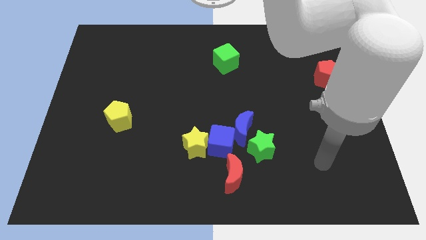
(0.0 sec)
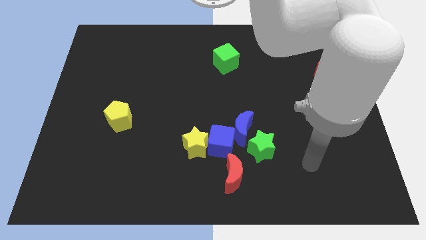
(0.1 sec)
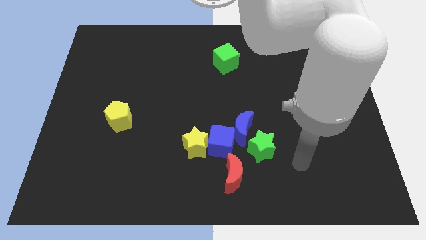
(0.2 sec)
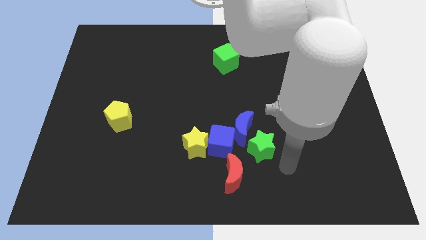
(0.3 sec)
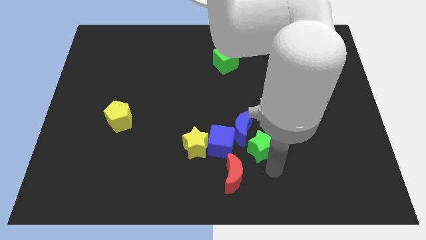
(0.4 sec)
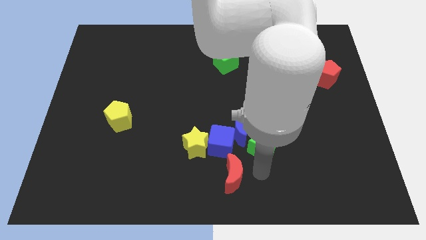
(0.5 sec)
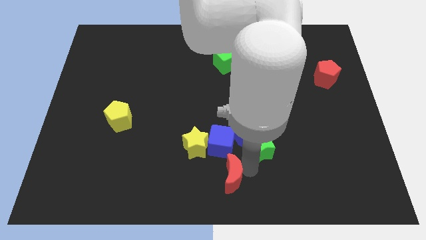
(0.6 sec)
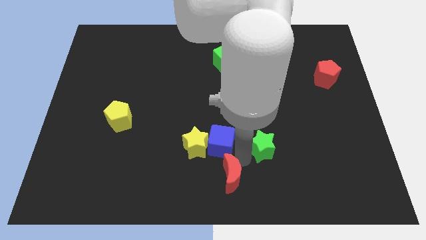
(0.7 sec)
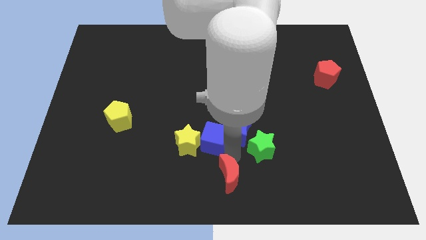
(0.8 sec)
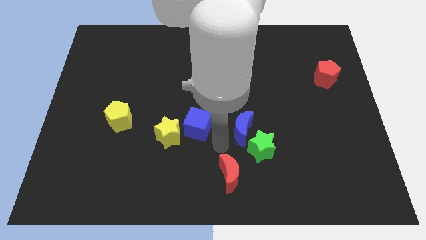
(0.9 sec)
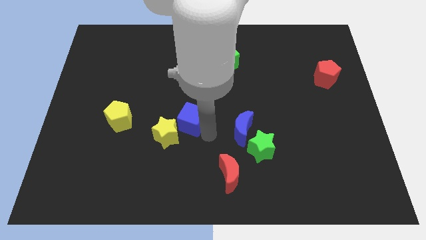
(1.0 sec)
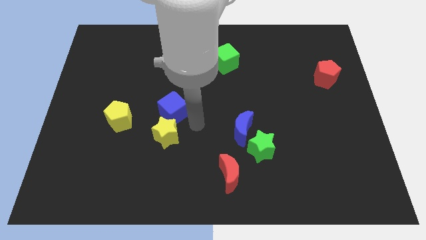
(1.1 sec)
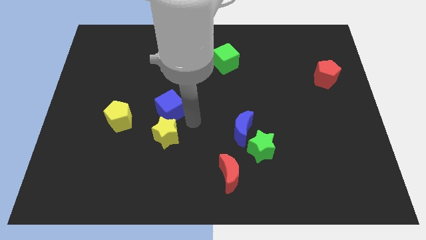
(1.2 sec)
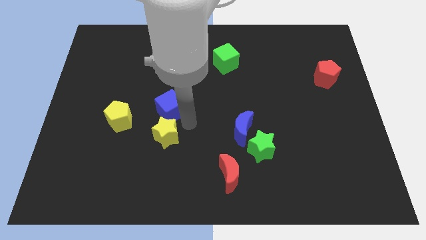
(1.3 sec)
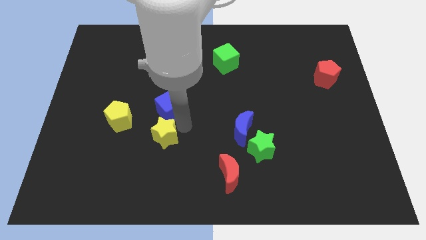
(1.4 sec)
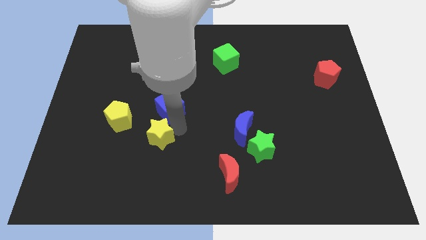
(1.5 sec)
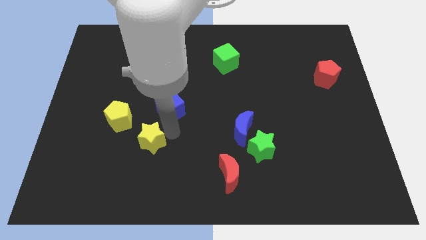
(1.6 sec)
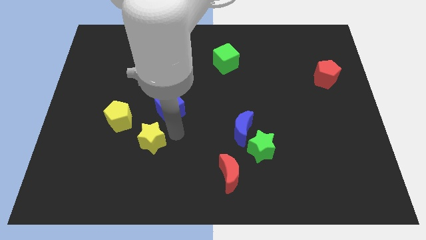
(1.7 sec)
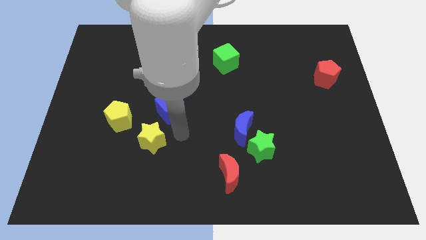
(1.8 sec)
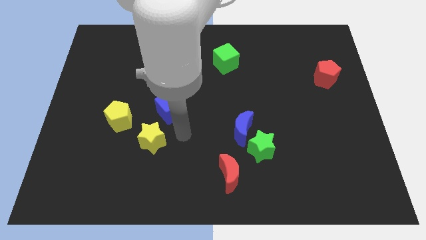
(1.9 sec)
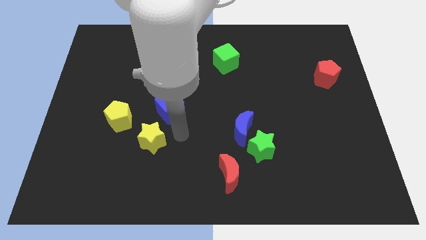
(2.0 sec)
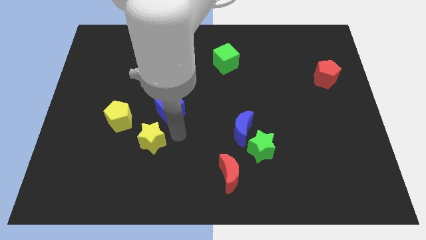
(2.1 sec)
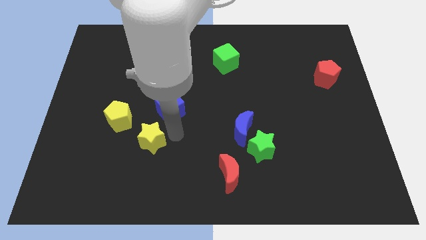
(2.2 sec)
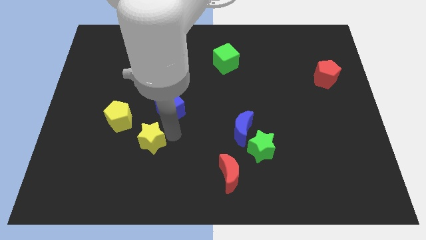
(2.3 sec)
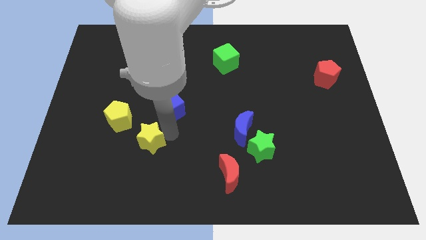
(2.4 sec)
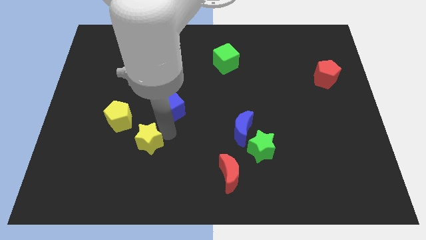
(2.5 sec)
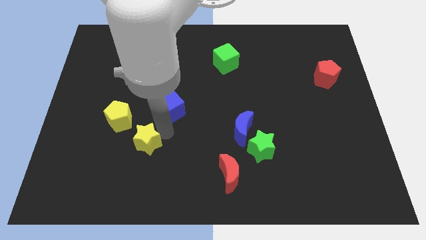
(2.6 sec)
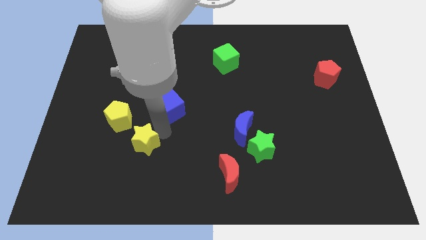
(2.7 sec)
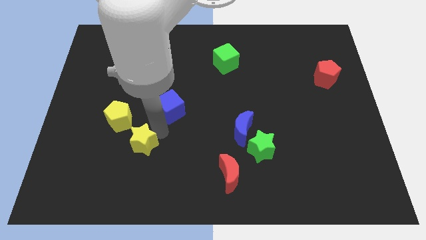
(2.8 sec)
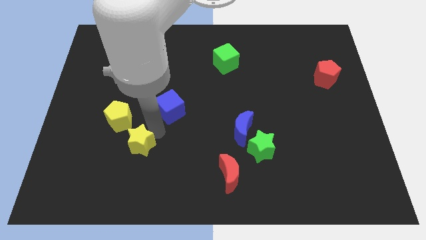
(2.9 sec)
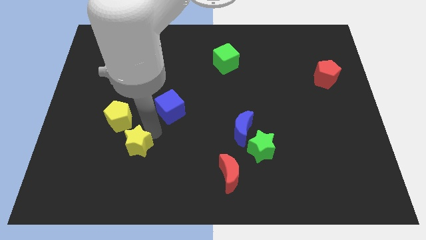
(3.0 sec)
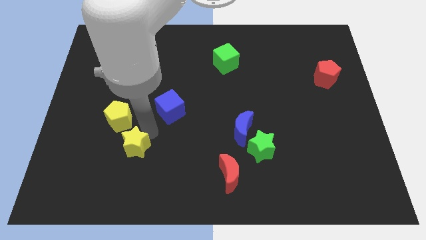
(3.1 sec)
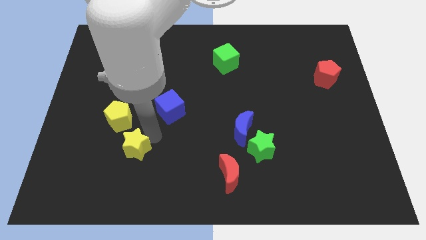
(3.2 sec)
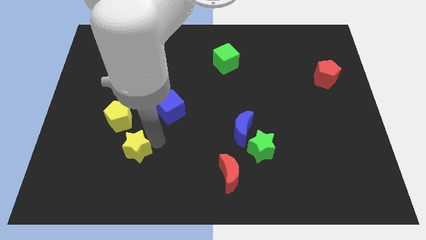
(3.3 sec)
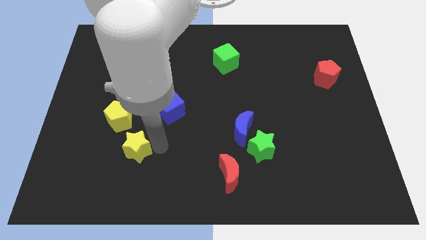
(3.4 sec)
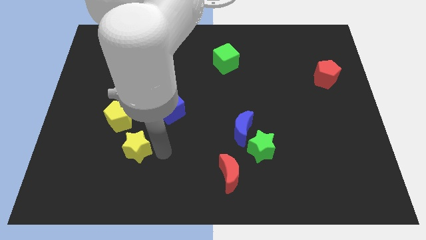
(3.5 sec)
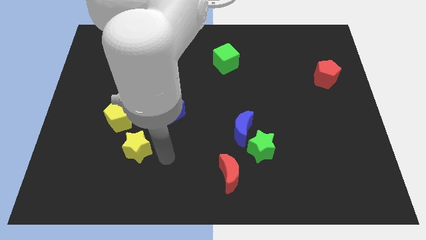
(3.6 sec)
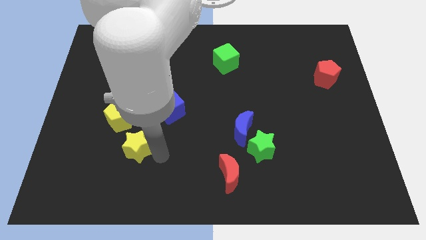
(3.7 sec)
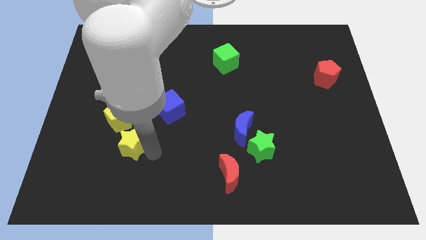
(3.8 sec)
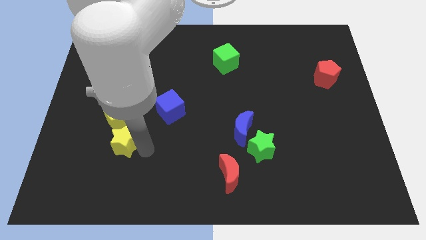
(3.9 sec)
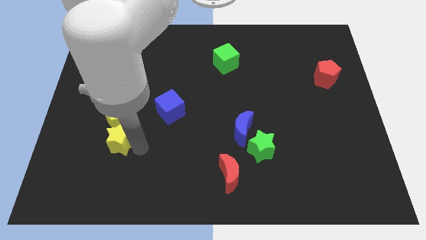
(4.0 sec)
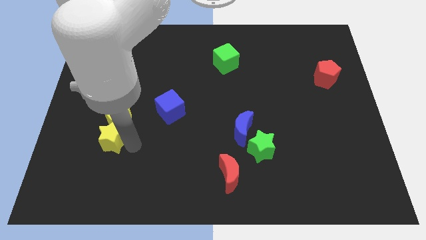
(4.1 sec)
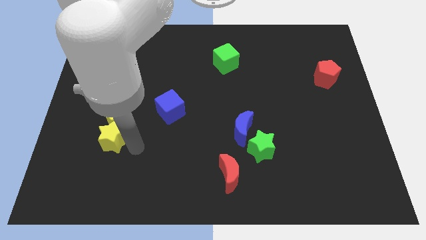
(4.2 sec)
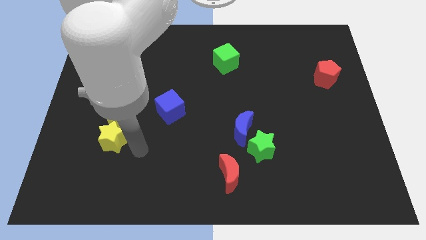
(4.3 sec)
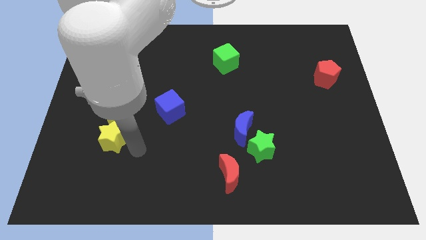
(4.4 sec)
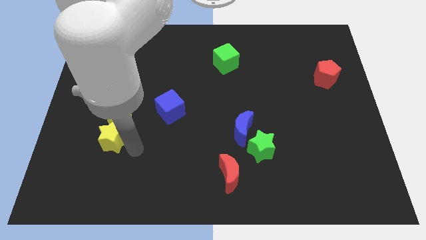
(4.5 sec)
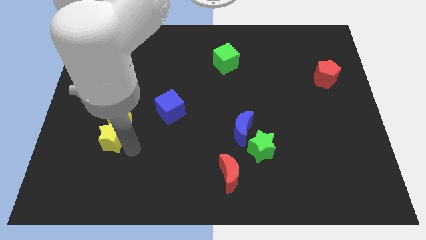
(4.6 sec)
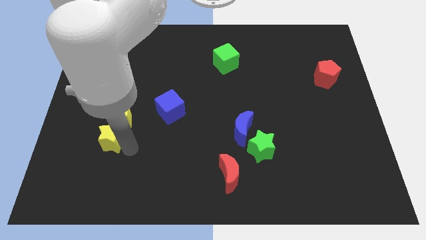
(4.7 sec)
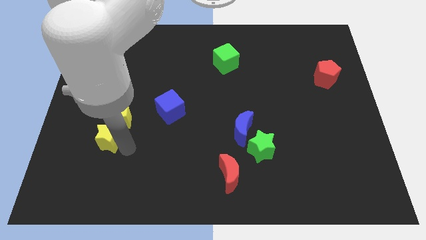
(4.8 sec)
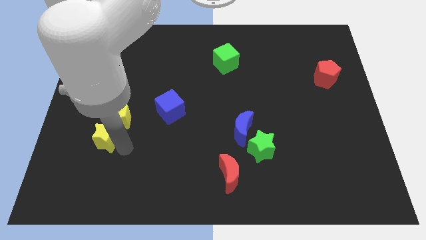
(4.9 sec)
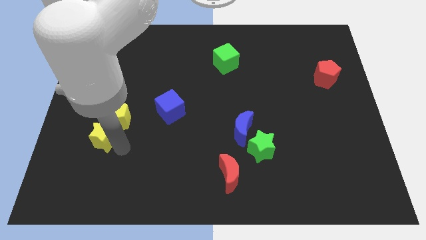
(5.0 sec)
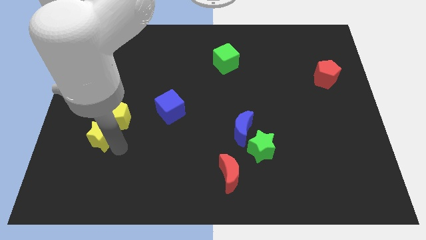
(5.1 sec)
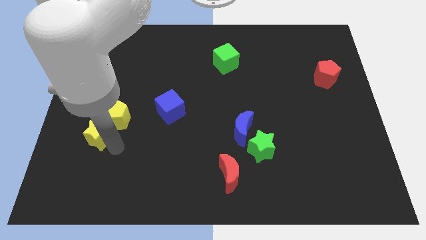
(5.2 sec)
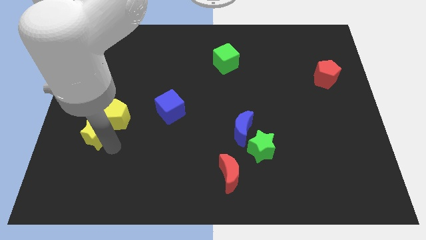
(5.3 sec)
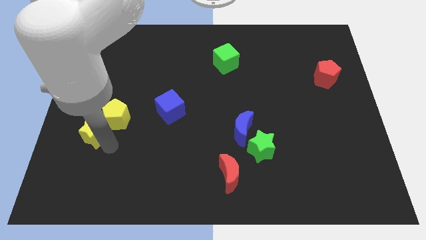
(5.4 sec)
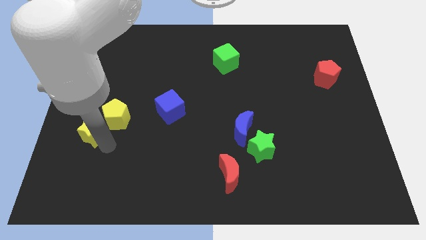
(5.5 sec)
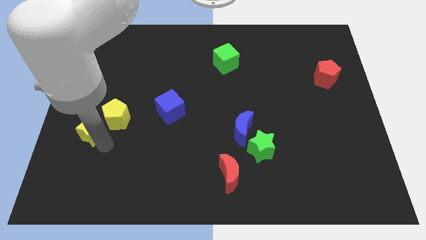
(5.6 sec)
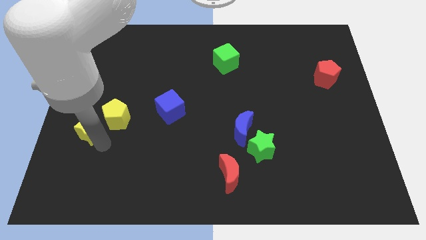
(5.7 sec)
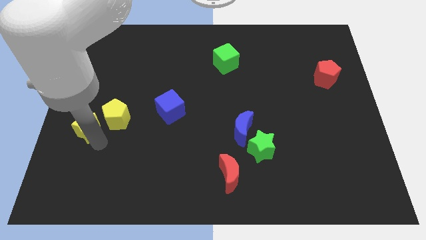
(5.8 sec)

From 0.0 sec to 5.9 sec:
push the yellow star to the left side
